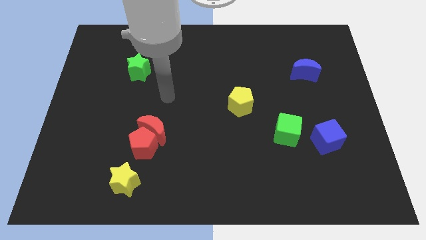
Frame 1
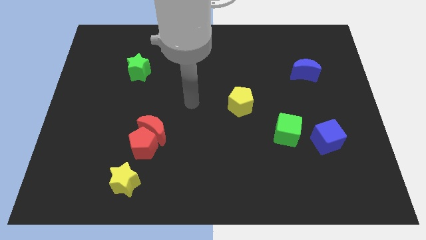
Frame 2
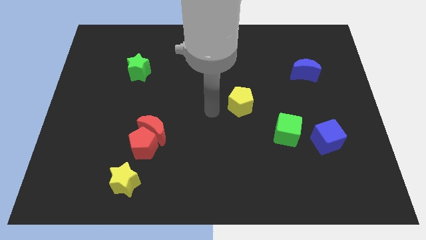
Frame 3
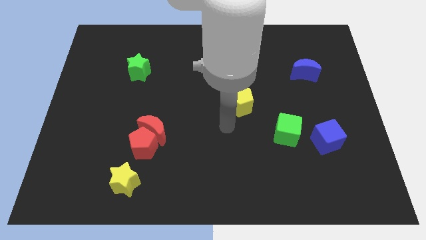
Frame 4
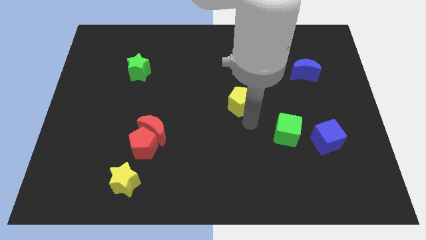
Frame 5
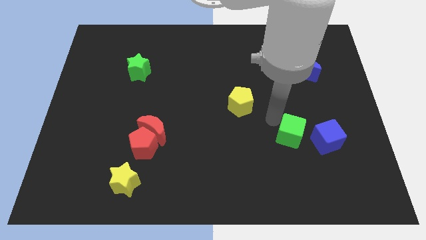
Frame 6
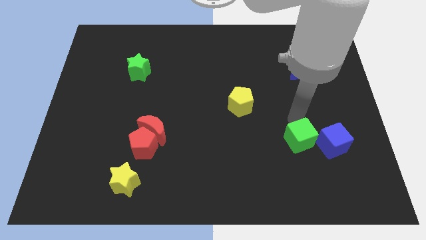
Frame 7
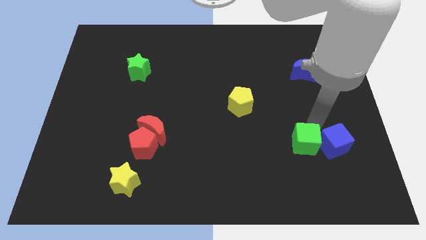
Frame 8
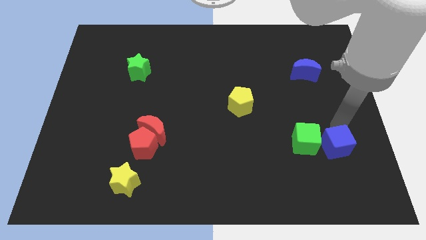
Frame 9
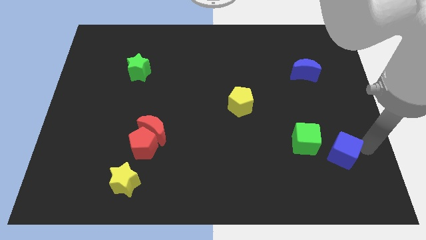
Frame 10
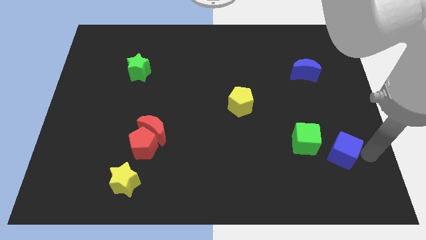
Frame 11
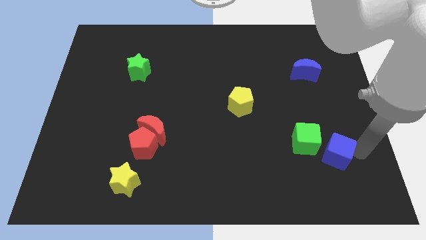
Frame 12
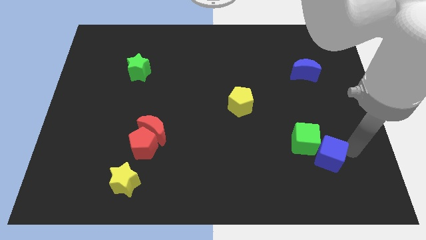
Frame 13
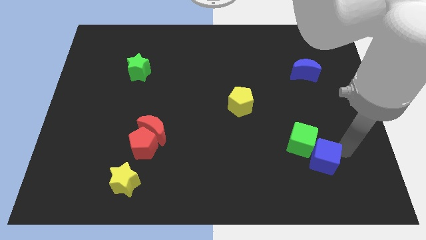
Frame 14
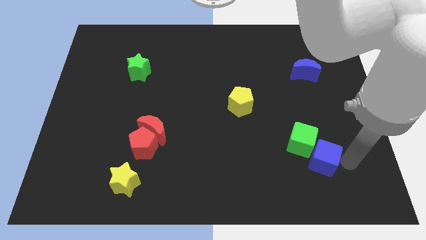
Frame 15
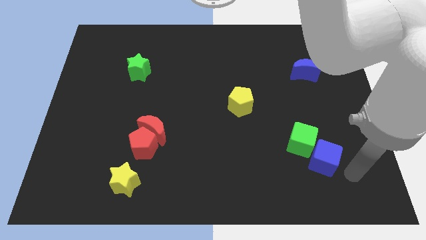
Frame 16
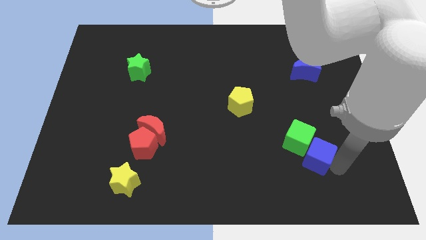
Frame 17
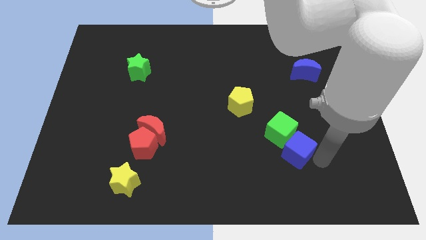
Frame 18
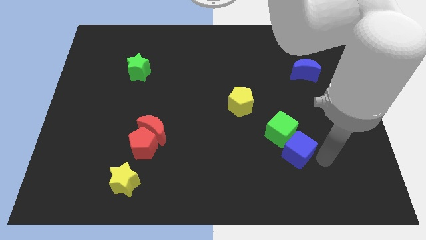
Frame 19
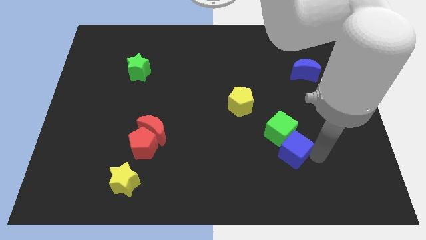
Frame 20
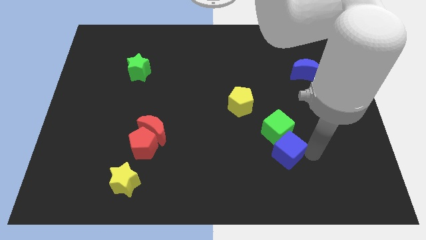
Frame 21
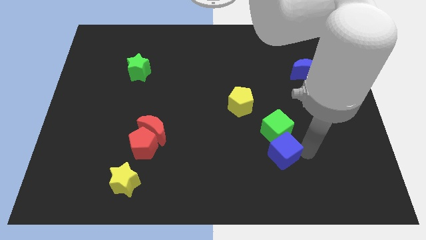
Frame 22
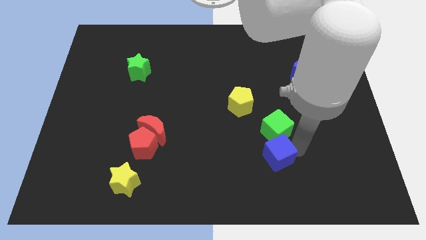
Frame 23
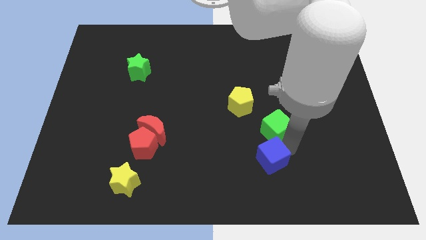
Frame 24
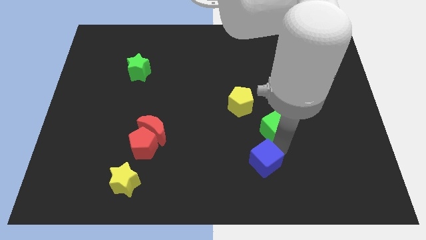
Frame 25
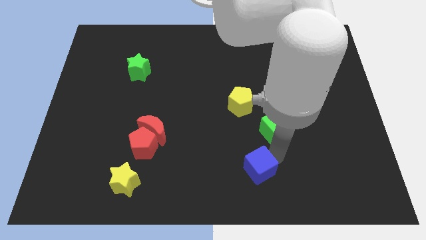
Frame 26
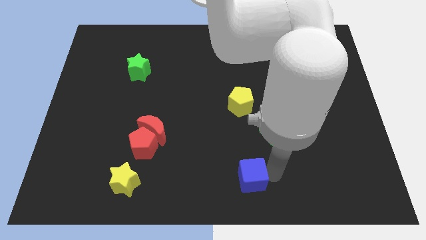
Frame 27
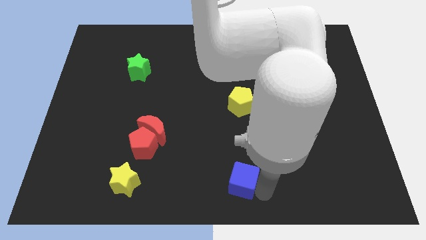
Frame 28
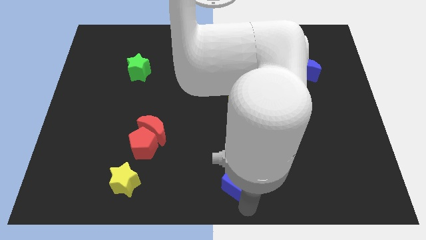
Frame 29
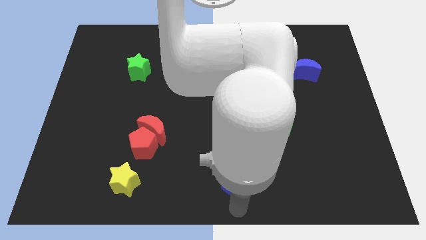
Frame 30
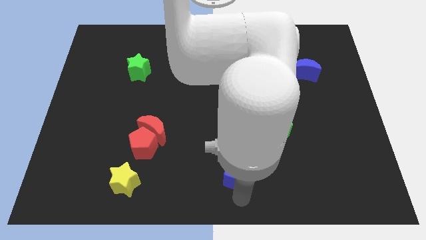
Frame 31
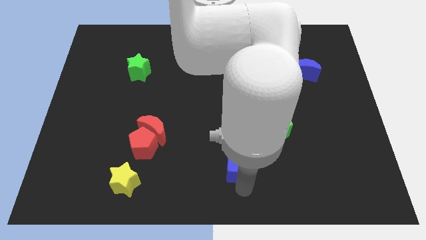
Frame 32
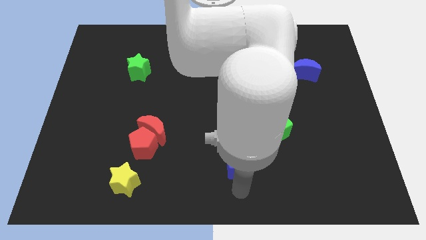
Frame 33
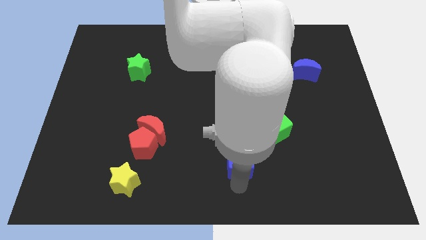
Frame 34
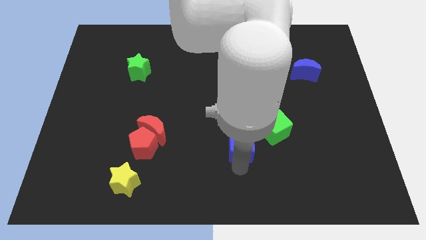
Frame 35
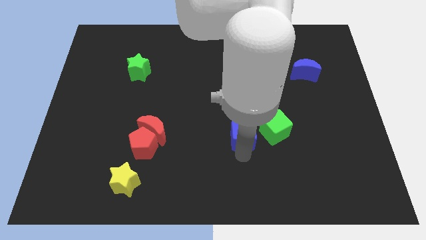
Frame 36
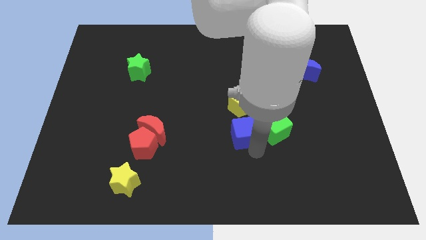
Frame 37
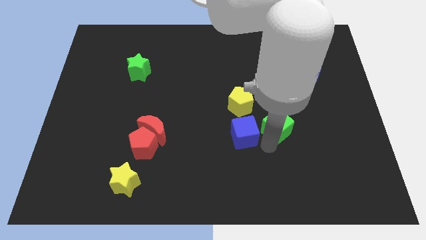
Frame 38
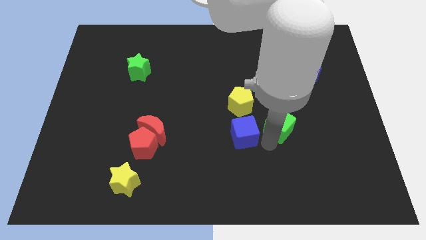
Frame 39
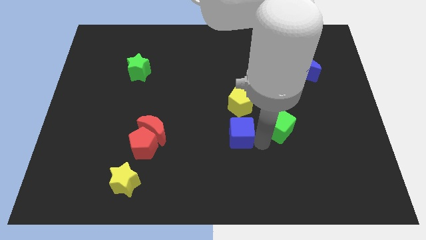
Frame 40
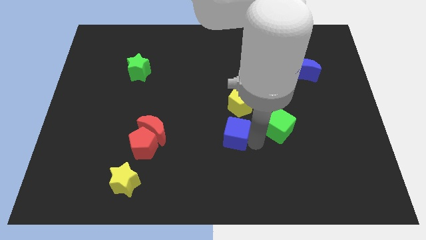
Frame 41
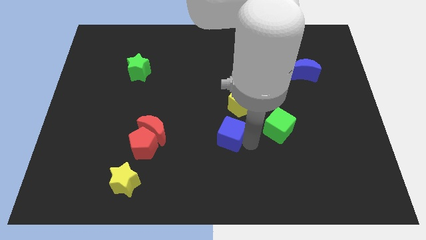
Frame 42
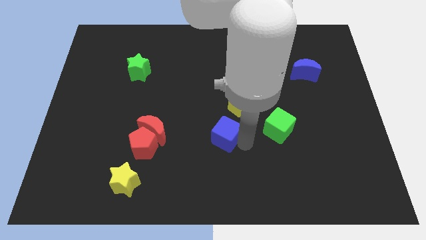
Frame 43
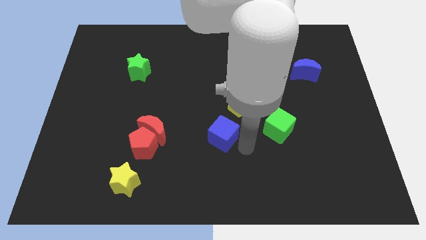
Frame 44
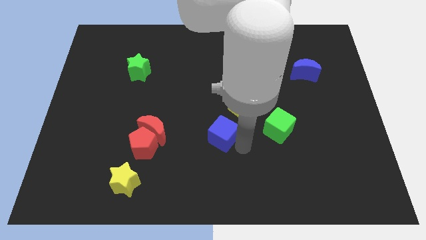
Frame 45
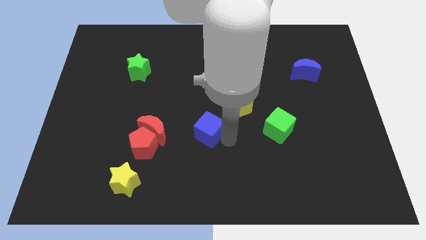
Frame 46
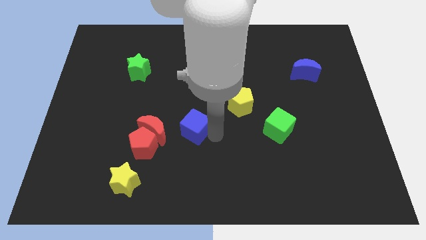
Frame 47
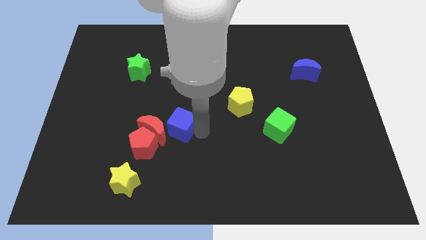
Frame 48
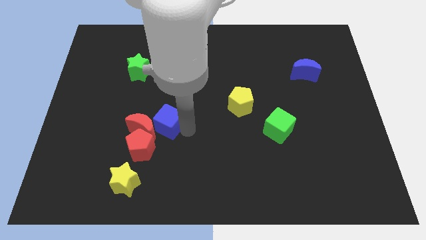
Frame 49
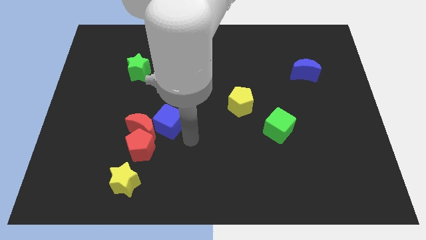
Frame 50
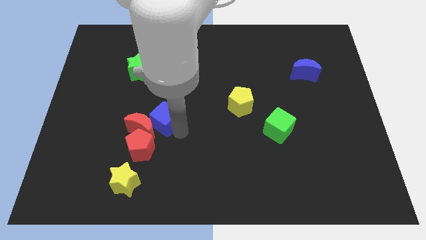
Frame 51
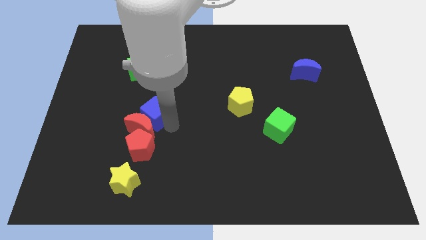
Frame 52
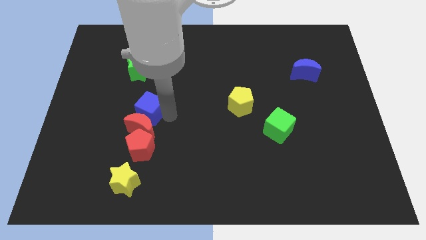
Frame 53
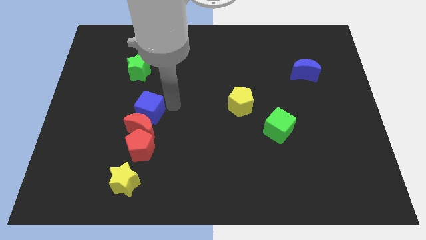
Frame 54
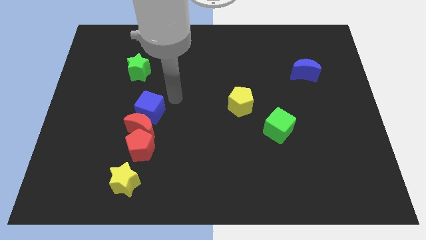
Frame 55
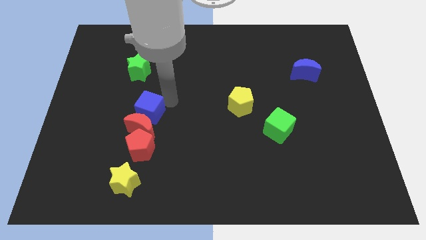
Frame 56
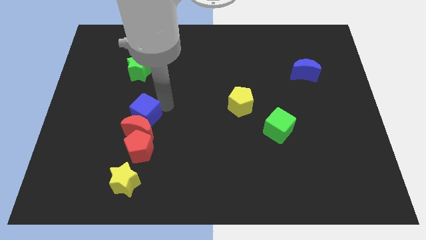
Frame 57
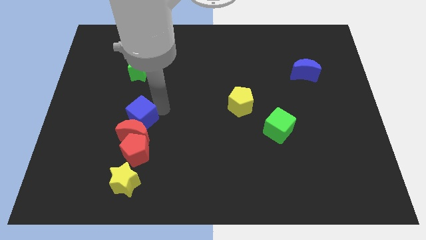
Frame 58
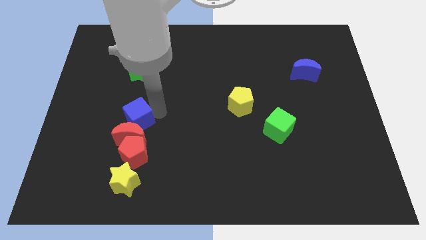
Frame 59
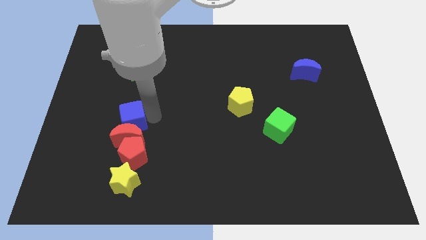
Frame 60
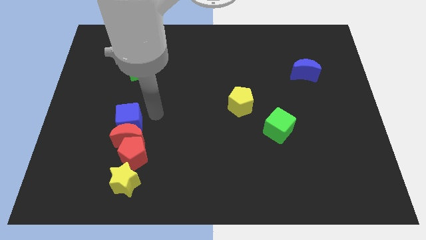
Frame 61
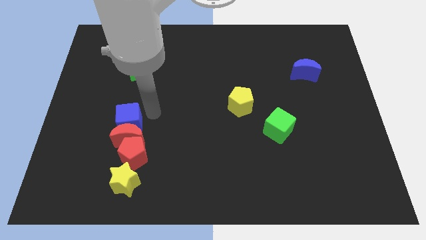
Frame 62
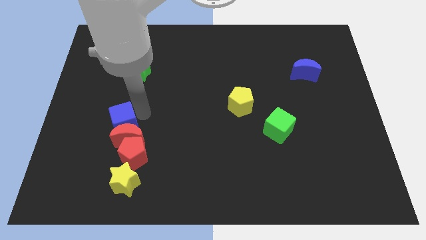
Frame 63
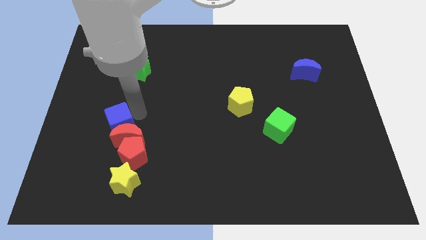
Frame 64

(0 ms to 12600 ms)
put the blue cube just left of the red moon

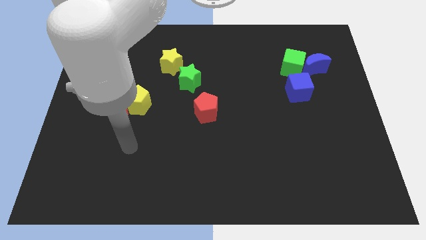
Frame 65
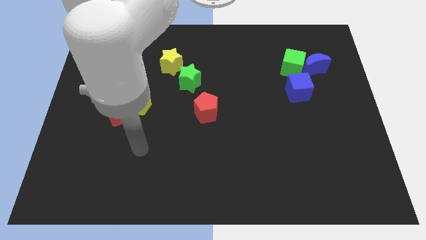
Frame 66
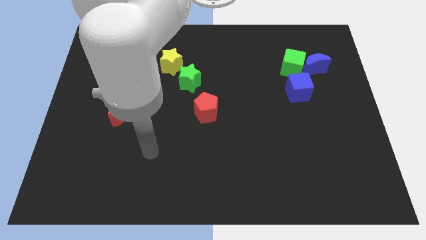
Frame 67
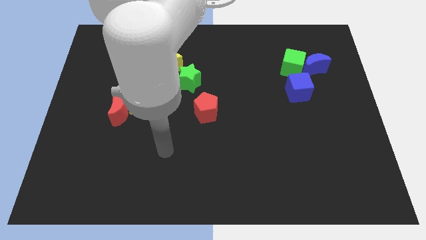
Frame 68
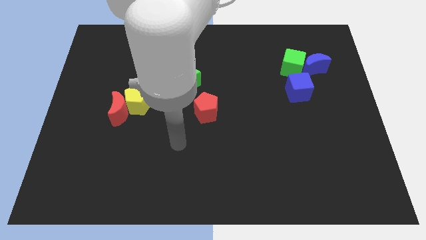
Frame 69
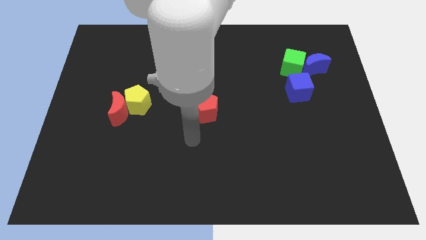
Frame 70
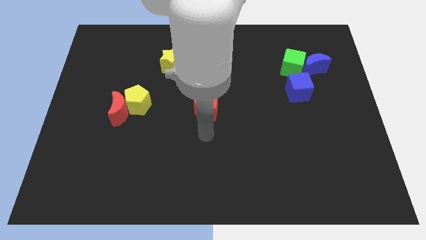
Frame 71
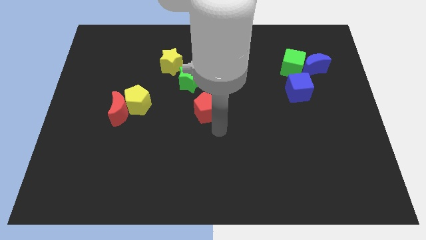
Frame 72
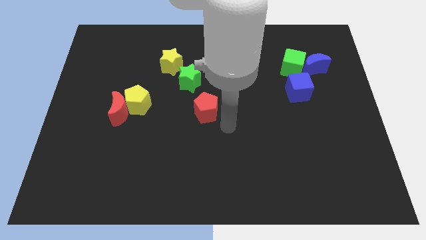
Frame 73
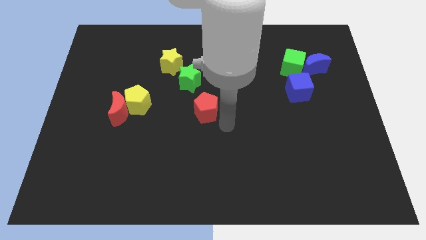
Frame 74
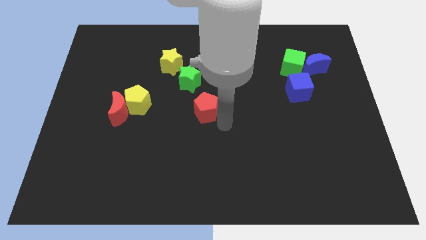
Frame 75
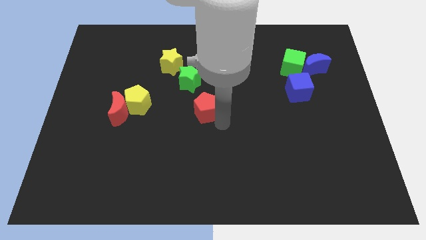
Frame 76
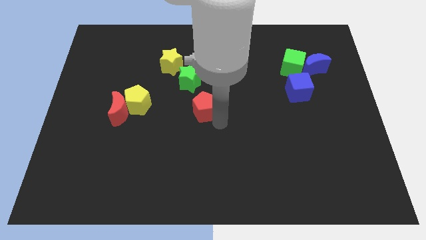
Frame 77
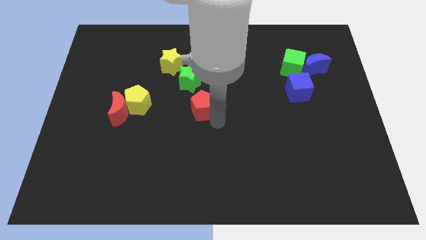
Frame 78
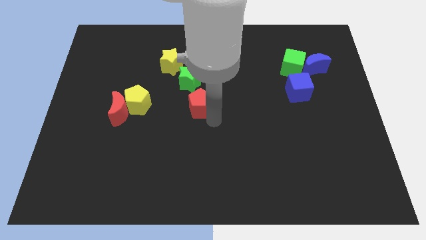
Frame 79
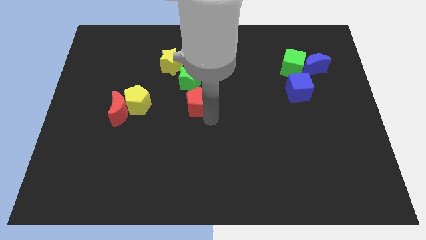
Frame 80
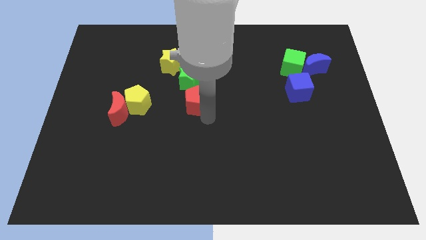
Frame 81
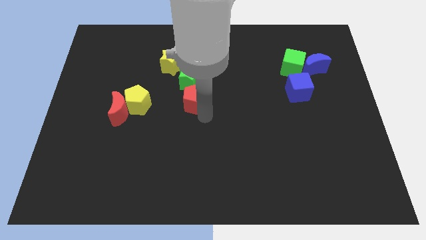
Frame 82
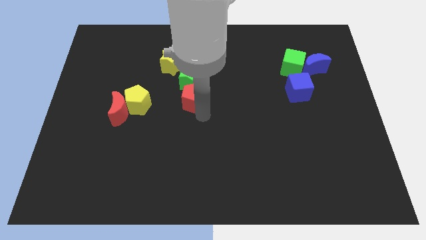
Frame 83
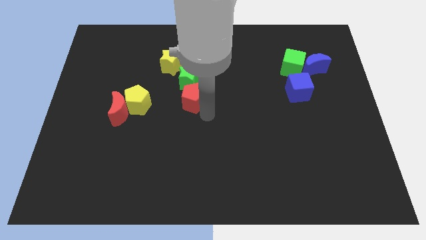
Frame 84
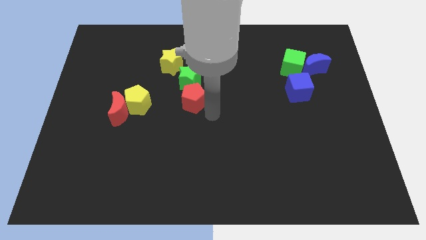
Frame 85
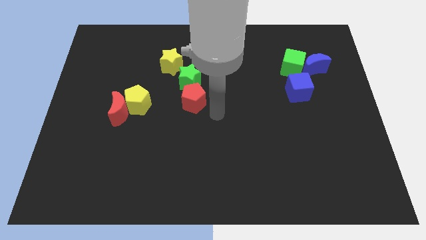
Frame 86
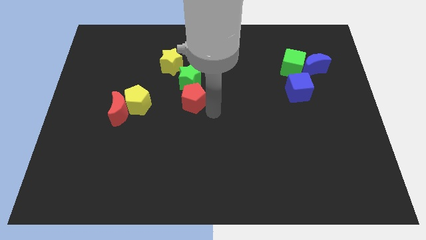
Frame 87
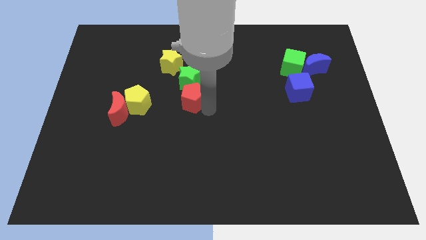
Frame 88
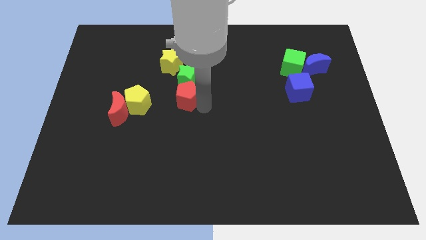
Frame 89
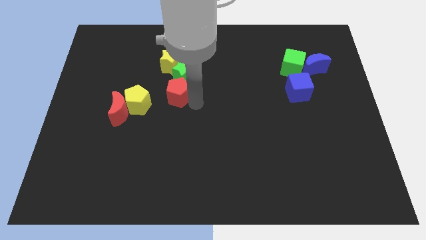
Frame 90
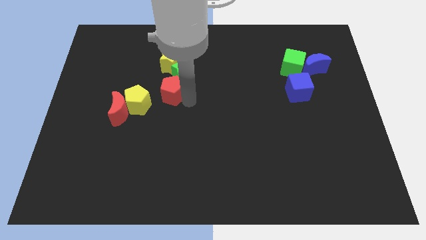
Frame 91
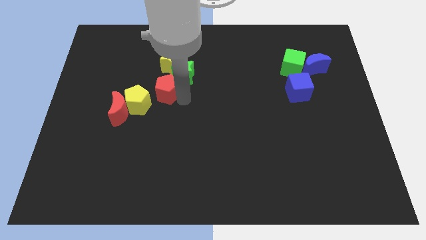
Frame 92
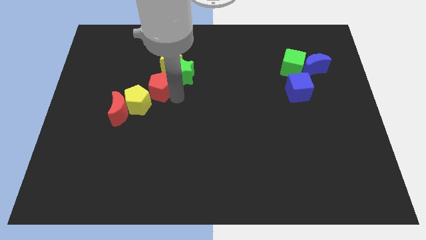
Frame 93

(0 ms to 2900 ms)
slide the red pentagon to the bottom left side of the yellow star
